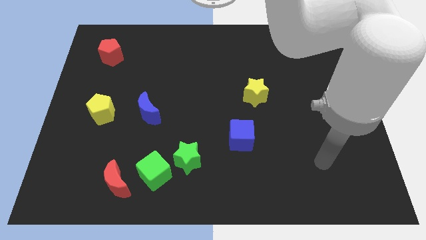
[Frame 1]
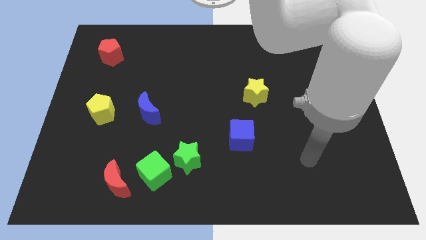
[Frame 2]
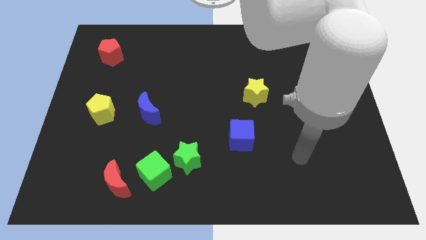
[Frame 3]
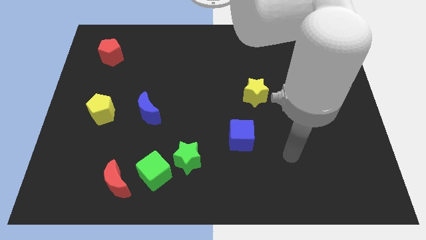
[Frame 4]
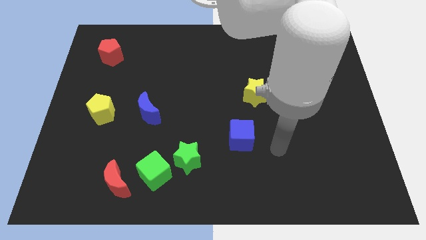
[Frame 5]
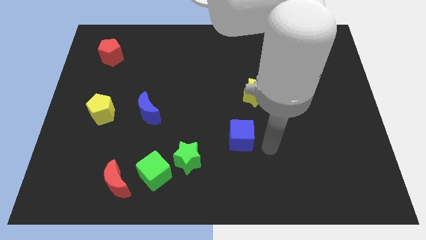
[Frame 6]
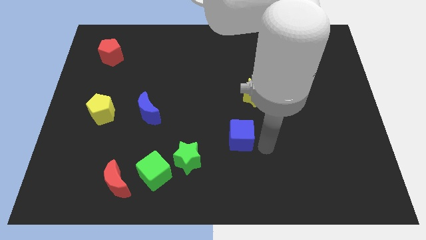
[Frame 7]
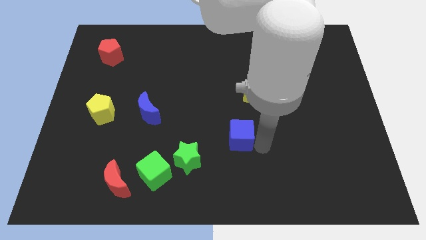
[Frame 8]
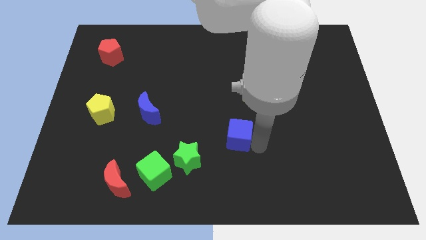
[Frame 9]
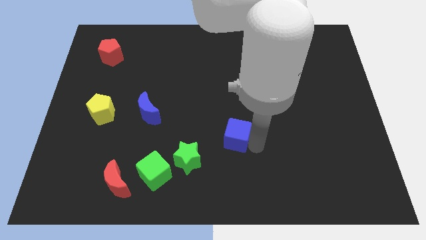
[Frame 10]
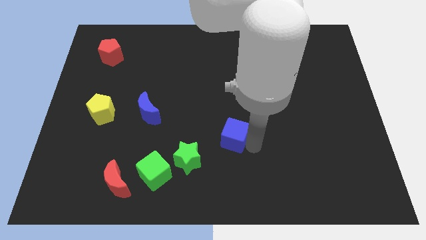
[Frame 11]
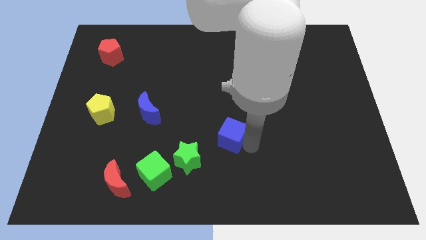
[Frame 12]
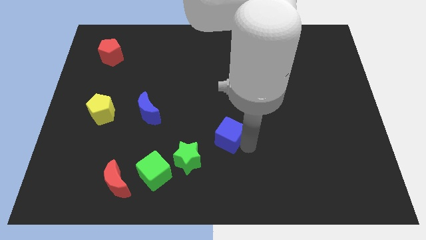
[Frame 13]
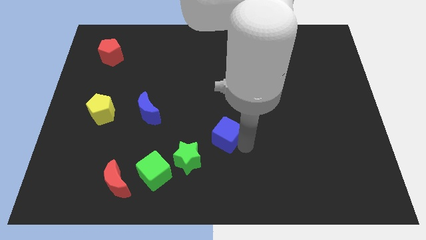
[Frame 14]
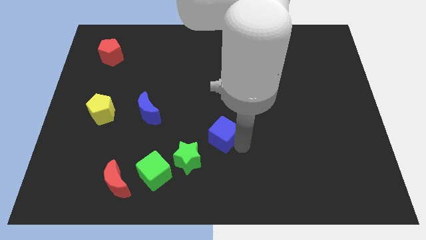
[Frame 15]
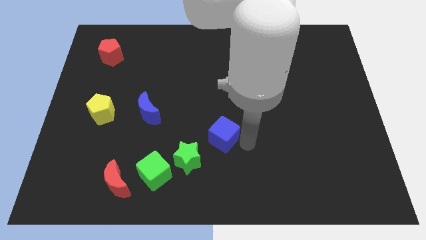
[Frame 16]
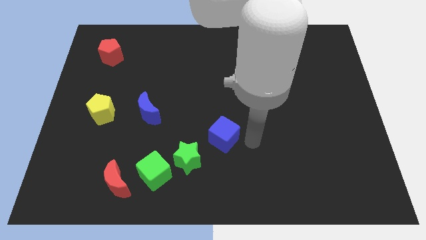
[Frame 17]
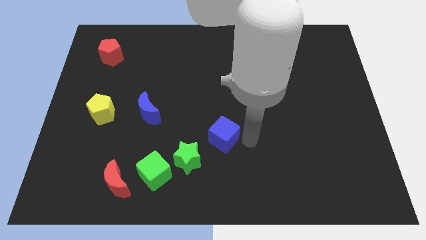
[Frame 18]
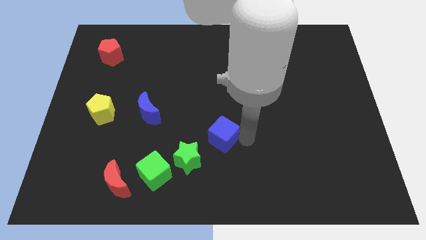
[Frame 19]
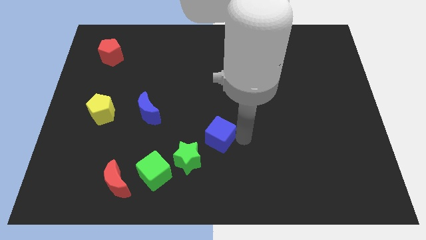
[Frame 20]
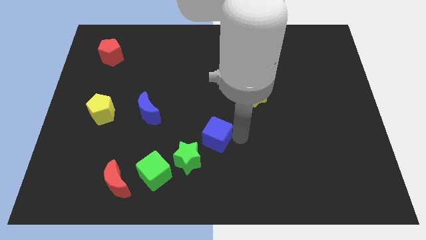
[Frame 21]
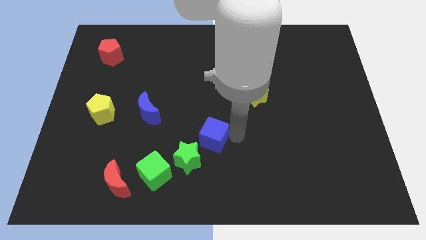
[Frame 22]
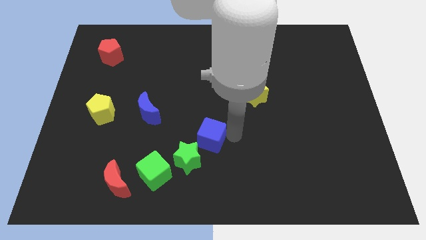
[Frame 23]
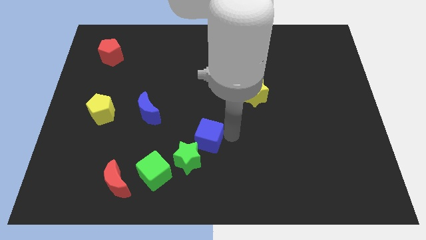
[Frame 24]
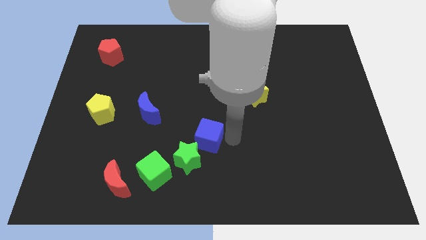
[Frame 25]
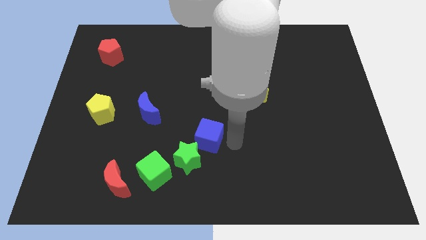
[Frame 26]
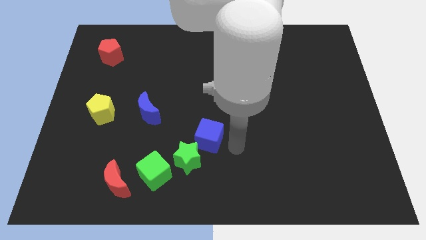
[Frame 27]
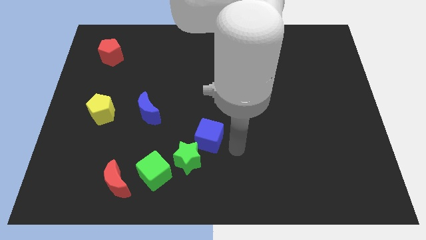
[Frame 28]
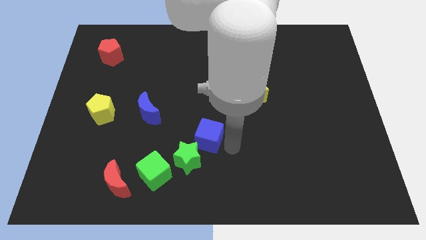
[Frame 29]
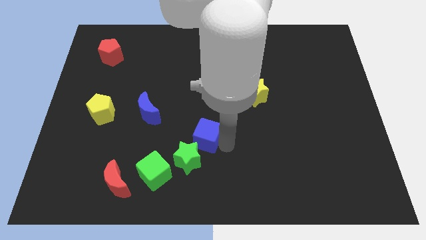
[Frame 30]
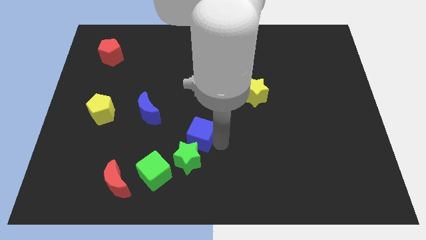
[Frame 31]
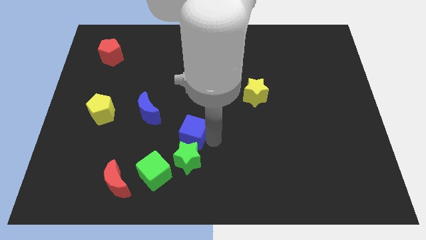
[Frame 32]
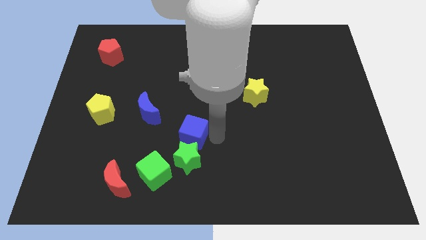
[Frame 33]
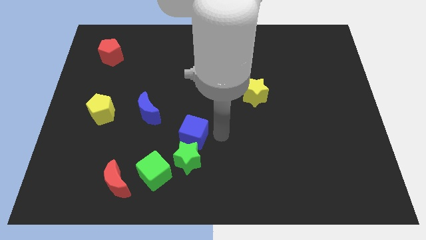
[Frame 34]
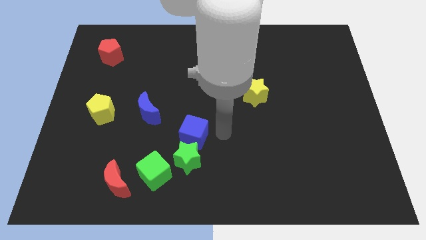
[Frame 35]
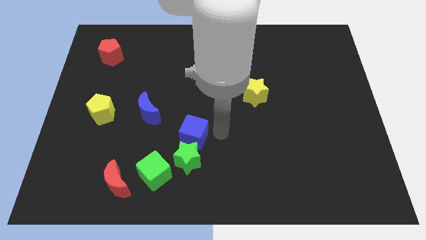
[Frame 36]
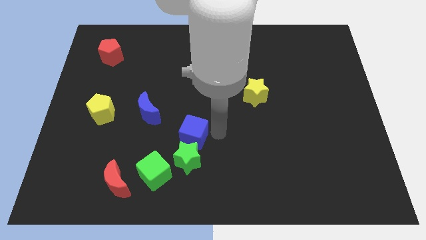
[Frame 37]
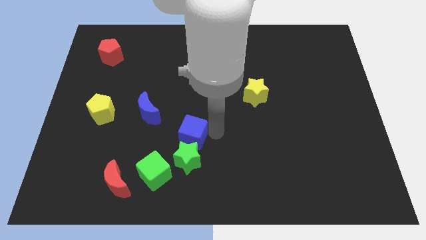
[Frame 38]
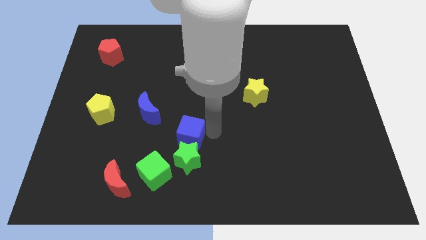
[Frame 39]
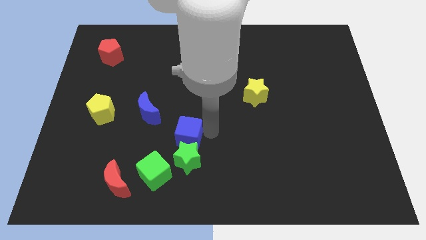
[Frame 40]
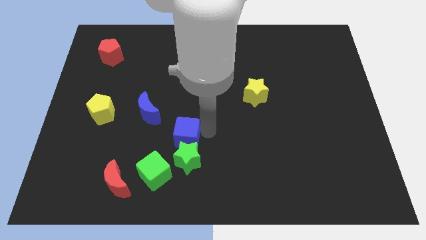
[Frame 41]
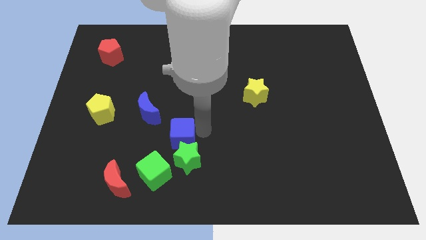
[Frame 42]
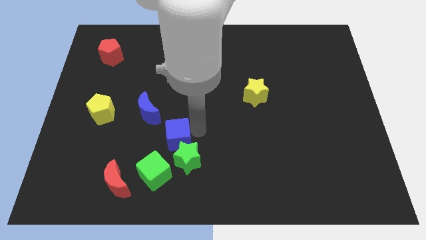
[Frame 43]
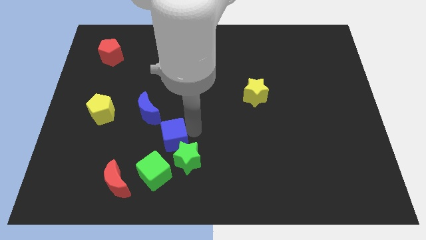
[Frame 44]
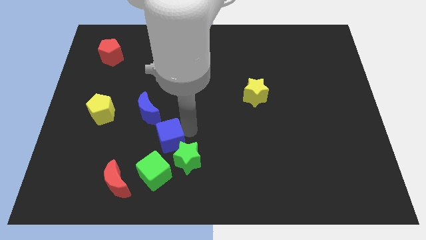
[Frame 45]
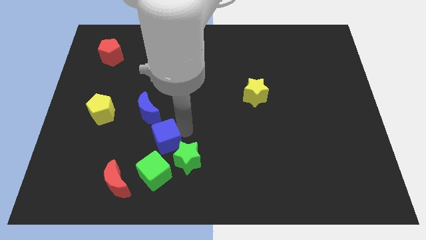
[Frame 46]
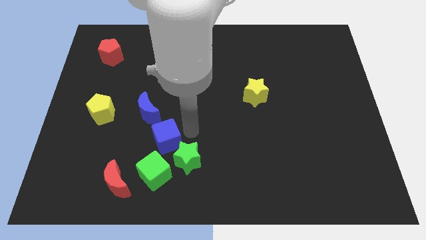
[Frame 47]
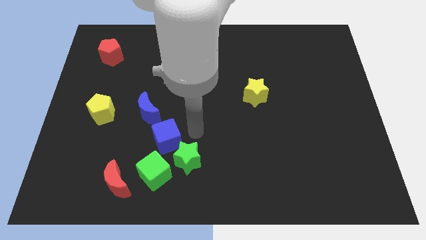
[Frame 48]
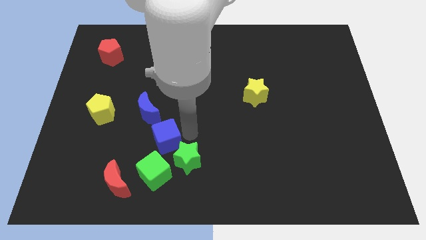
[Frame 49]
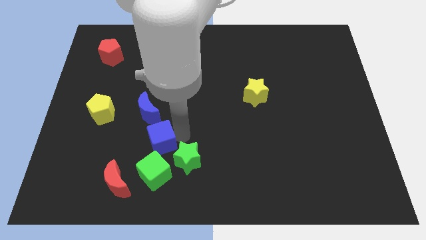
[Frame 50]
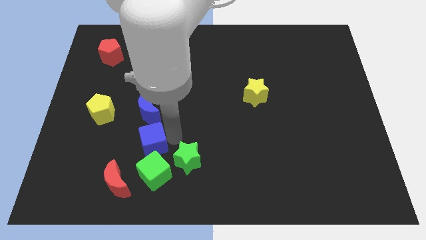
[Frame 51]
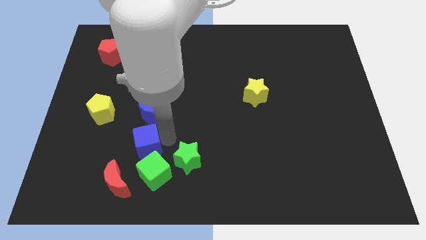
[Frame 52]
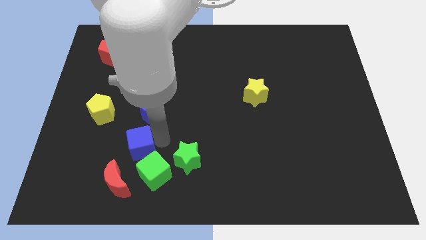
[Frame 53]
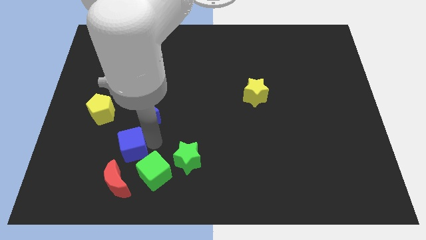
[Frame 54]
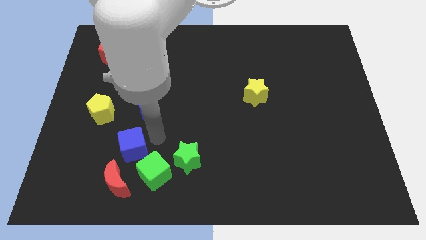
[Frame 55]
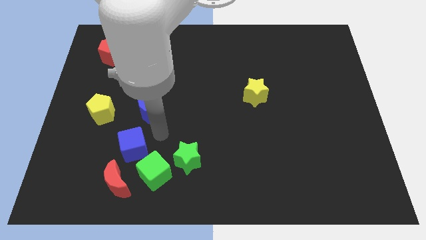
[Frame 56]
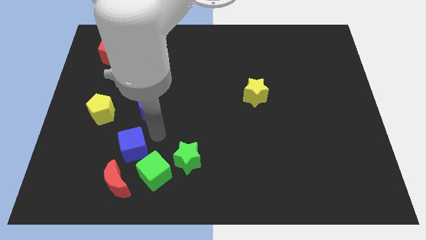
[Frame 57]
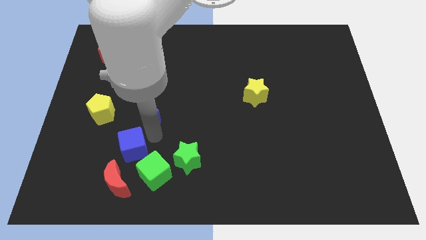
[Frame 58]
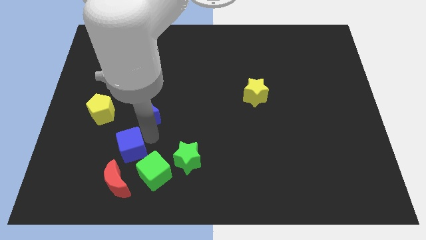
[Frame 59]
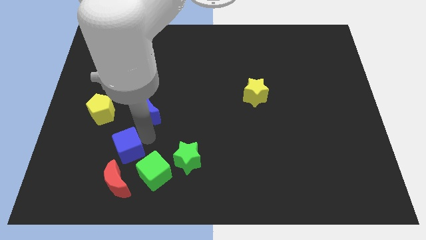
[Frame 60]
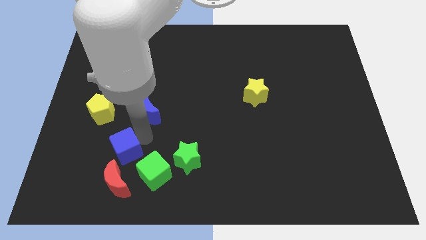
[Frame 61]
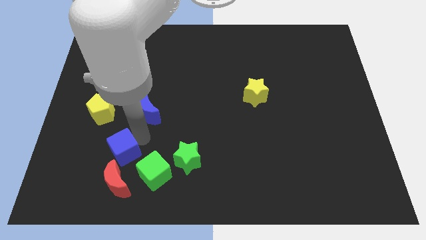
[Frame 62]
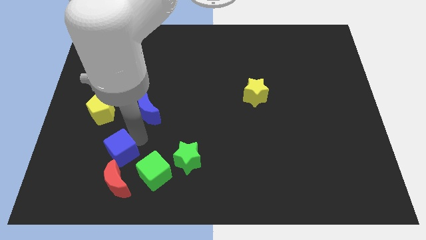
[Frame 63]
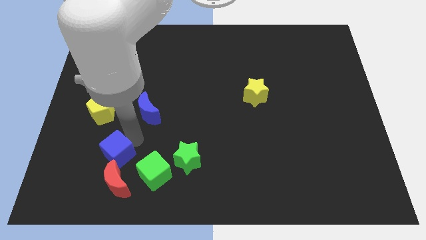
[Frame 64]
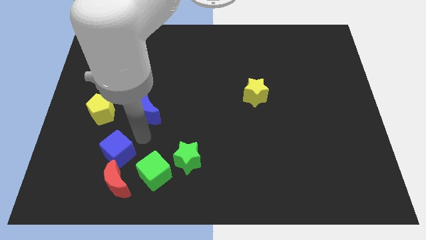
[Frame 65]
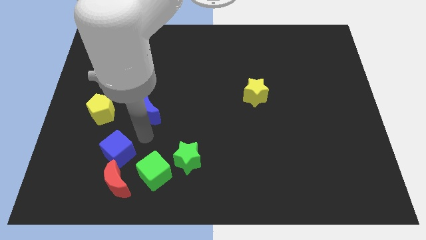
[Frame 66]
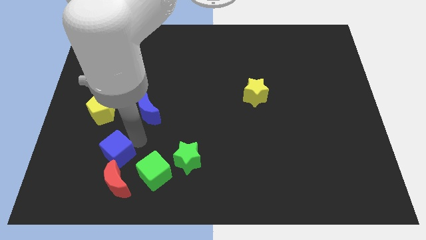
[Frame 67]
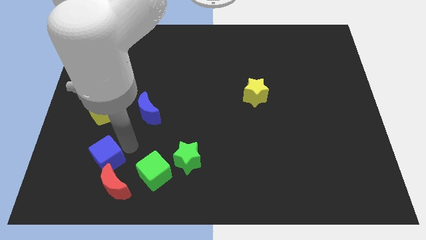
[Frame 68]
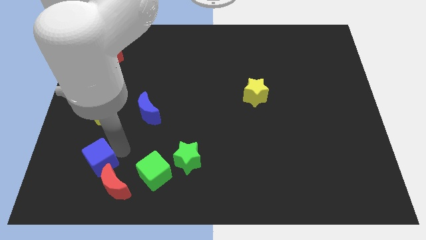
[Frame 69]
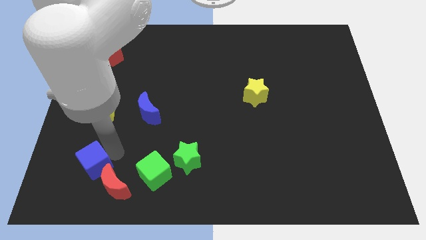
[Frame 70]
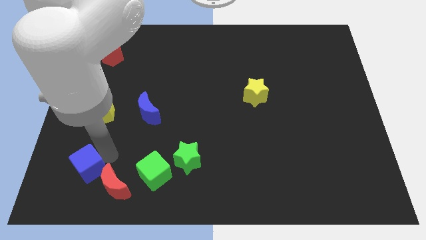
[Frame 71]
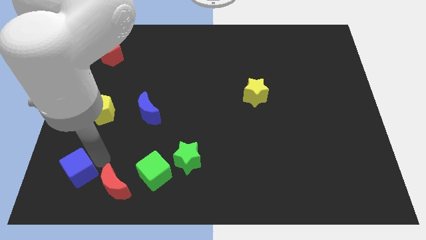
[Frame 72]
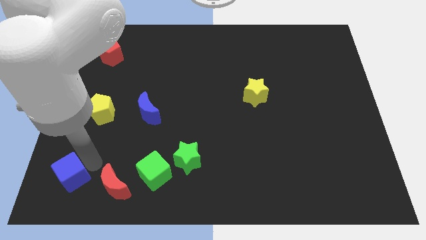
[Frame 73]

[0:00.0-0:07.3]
push the blue cube to the bottom left corner
